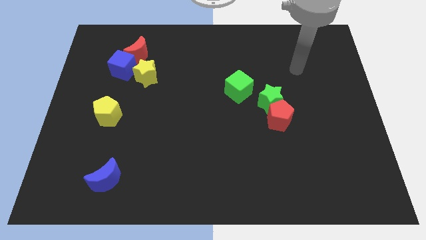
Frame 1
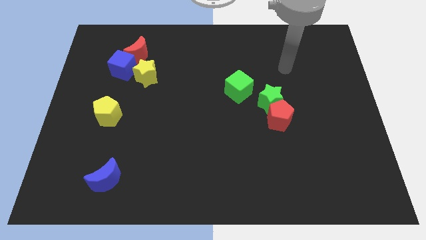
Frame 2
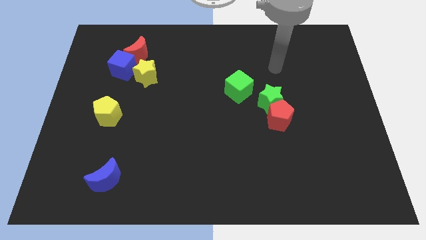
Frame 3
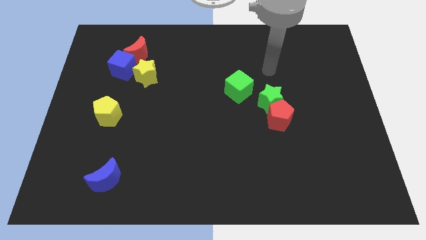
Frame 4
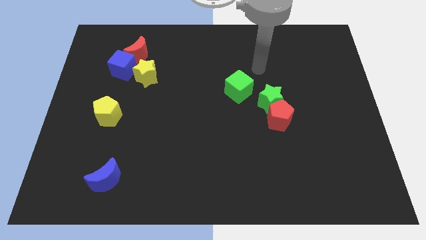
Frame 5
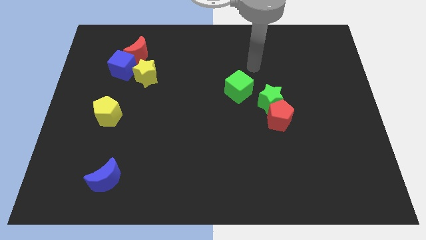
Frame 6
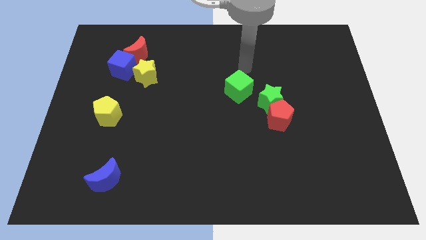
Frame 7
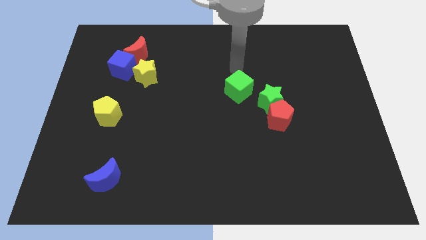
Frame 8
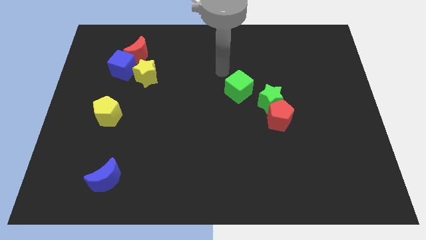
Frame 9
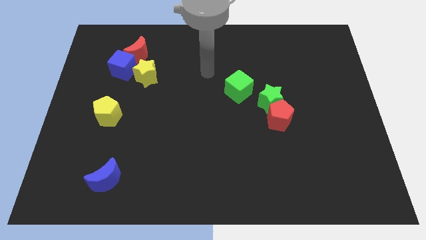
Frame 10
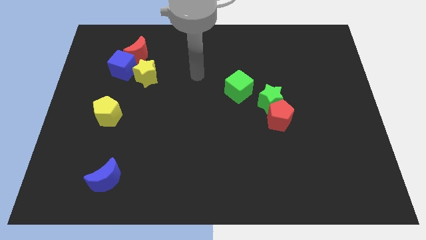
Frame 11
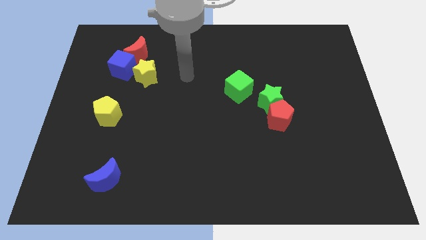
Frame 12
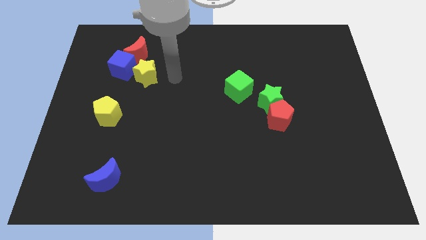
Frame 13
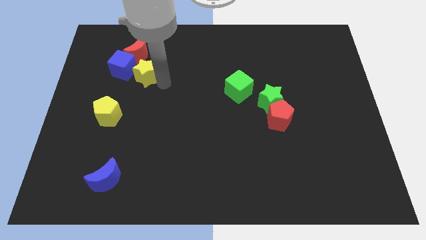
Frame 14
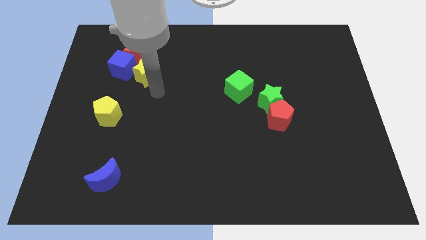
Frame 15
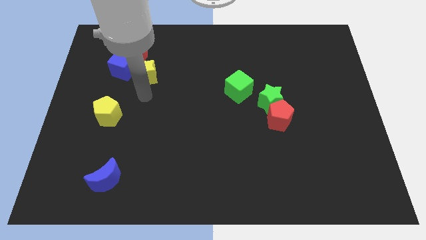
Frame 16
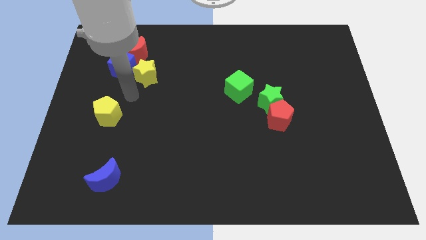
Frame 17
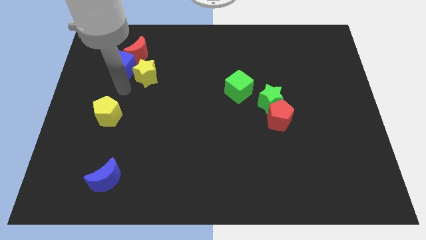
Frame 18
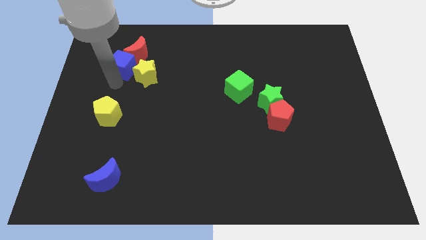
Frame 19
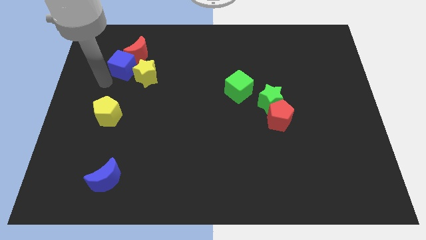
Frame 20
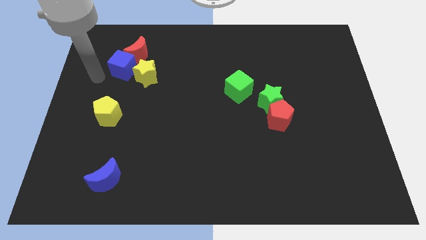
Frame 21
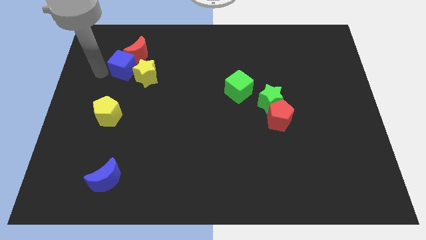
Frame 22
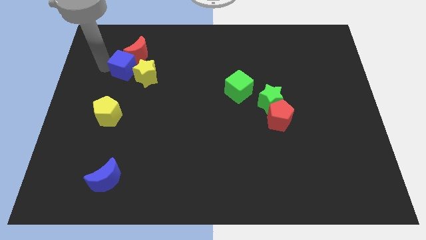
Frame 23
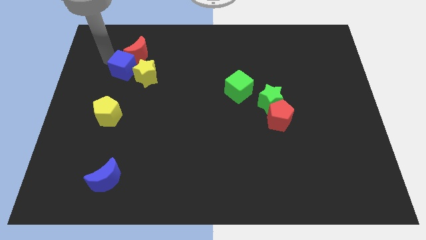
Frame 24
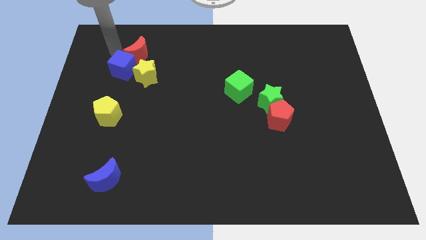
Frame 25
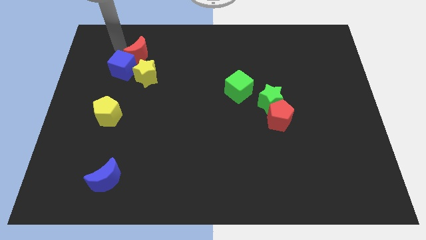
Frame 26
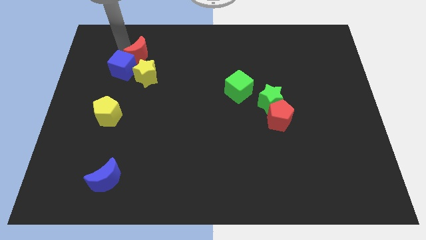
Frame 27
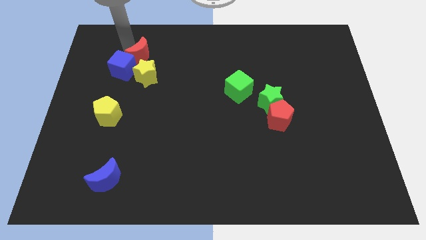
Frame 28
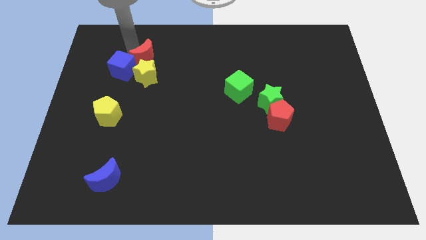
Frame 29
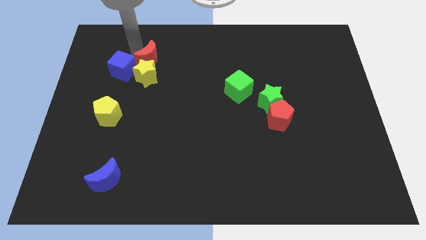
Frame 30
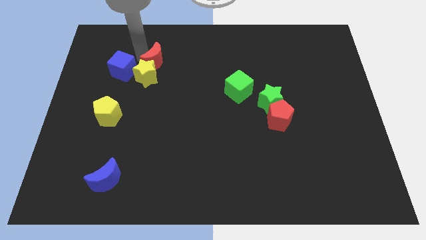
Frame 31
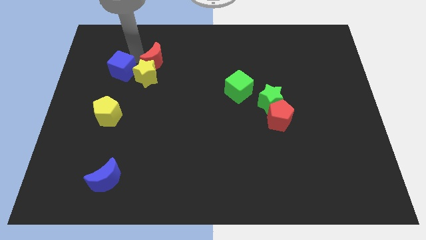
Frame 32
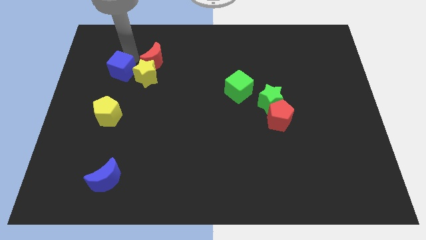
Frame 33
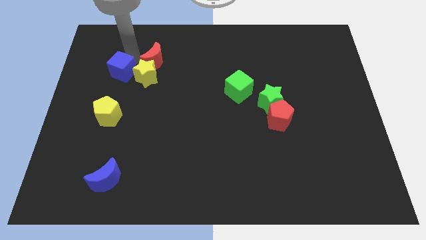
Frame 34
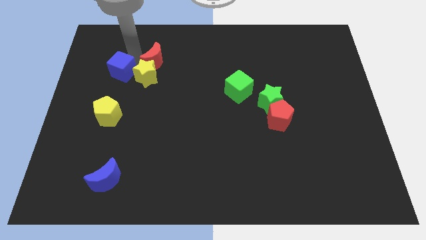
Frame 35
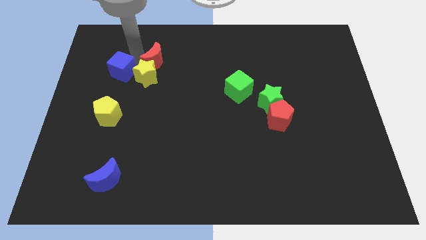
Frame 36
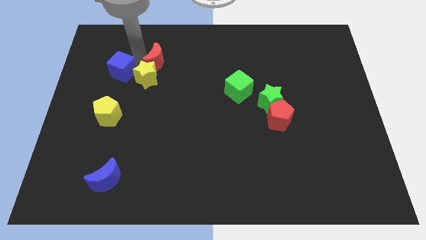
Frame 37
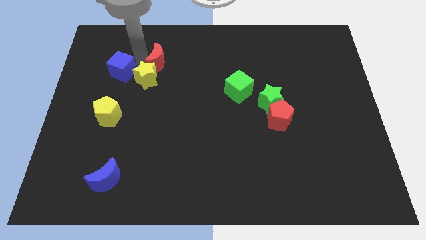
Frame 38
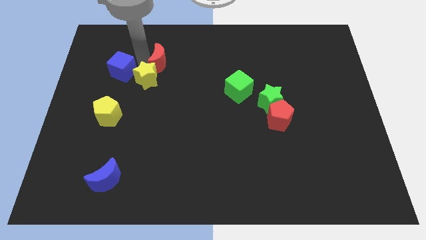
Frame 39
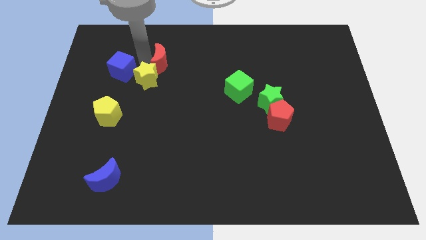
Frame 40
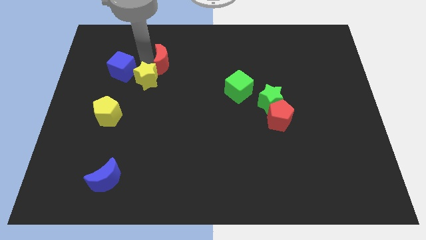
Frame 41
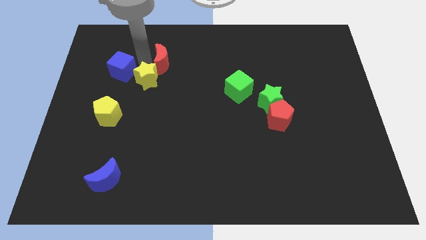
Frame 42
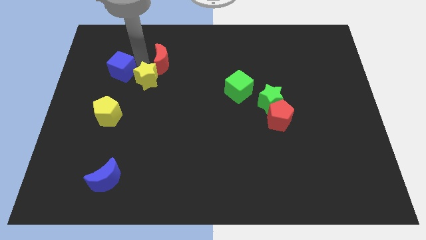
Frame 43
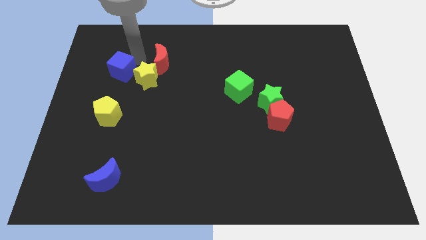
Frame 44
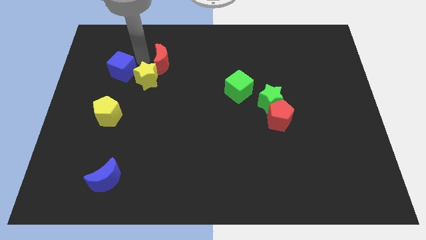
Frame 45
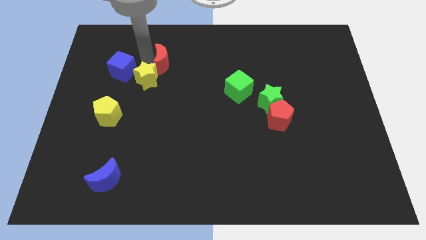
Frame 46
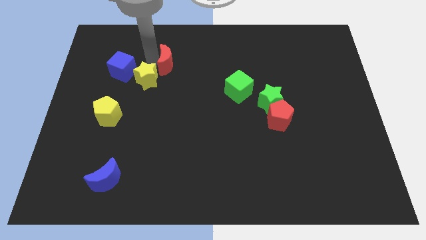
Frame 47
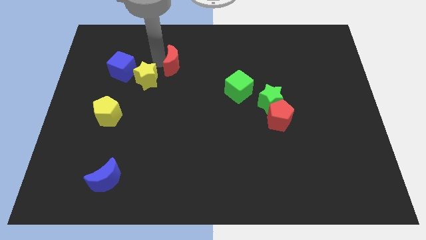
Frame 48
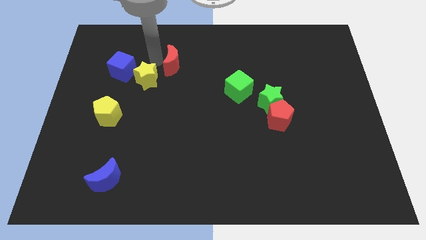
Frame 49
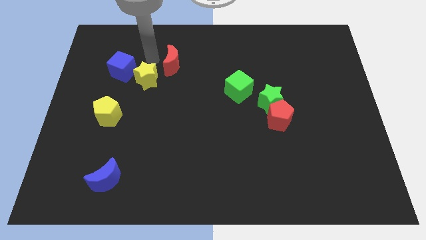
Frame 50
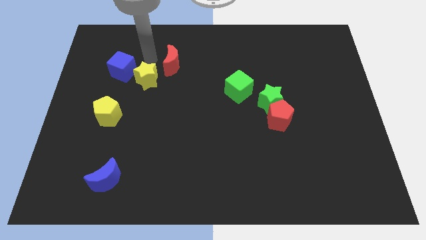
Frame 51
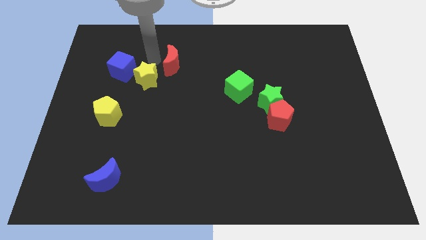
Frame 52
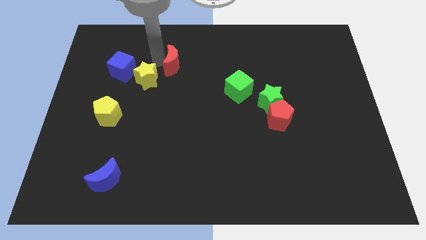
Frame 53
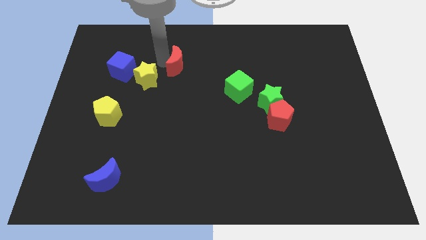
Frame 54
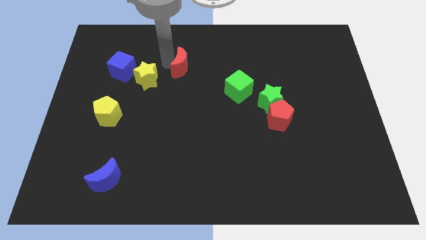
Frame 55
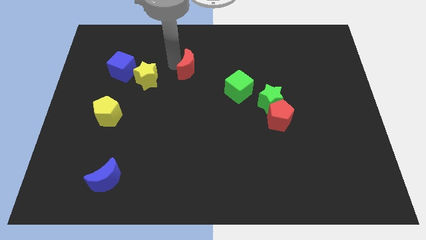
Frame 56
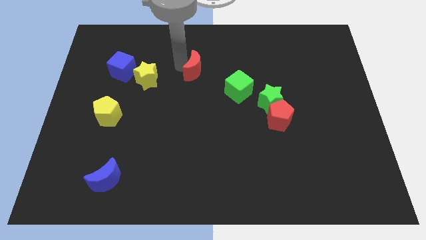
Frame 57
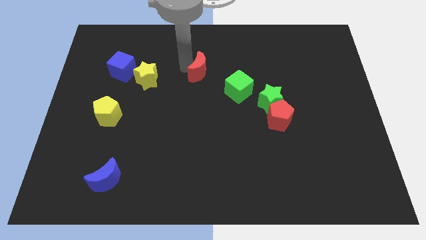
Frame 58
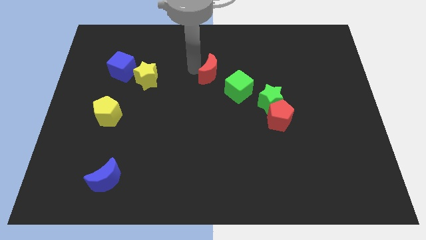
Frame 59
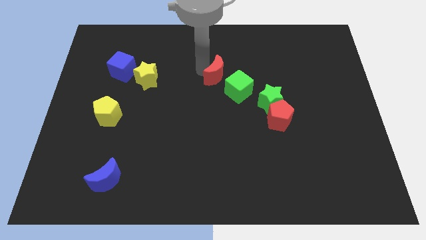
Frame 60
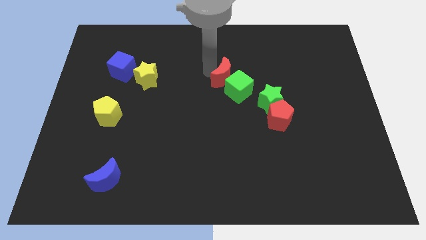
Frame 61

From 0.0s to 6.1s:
put the red moon towards the green cube

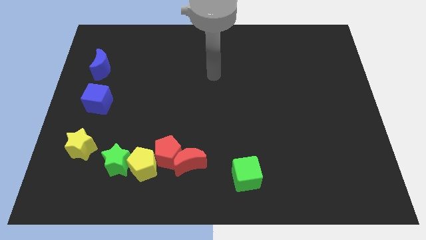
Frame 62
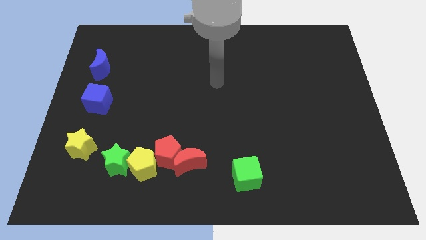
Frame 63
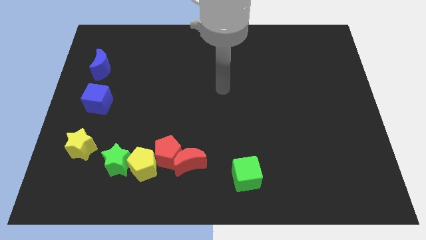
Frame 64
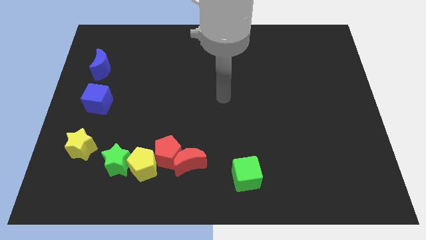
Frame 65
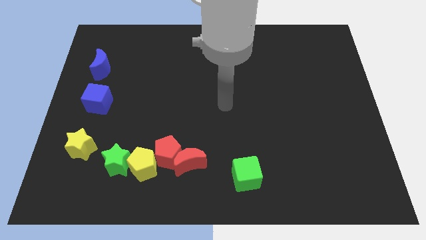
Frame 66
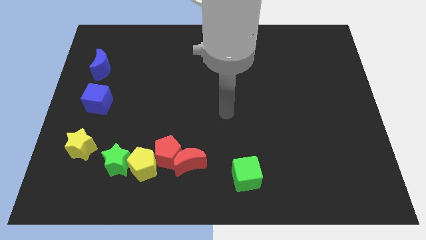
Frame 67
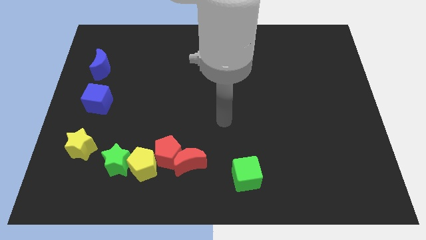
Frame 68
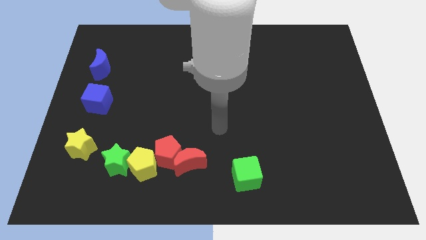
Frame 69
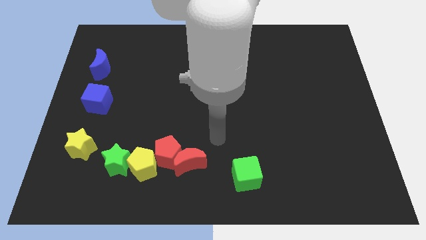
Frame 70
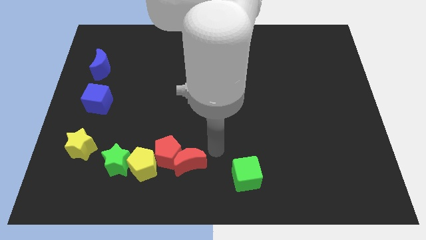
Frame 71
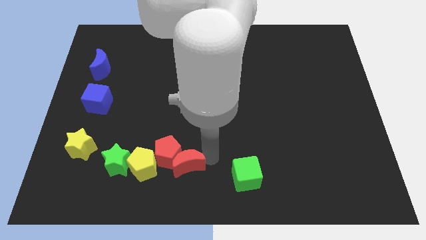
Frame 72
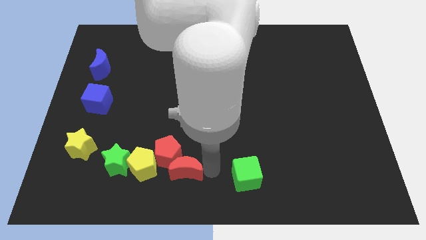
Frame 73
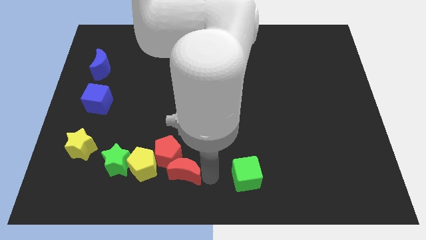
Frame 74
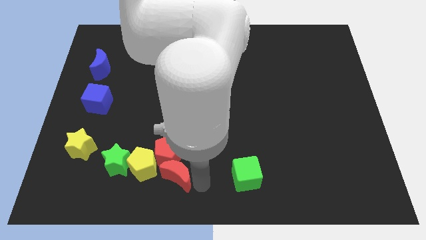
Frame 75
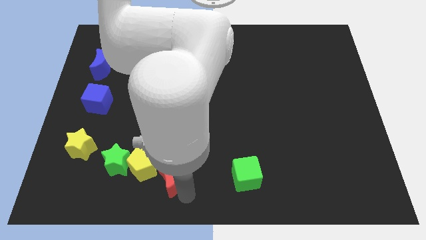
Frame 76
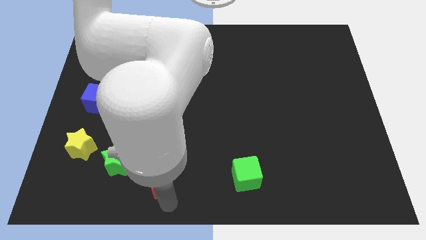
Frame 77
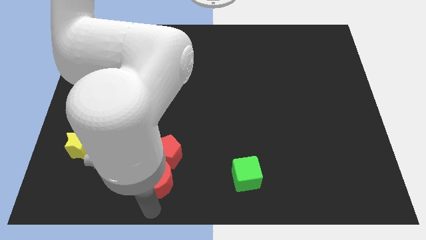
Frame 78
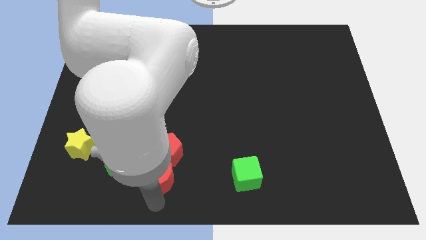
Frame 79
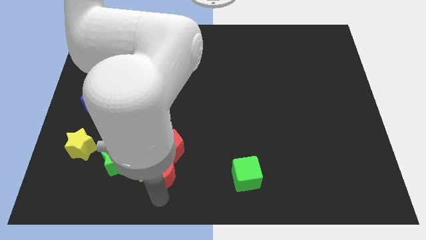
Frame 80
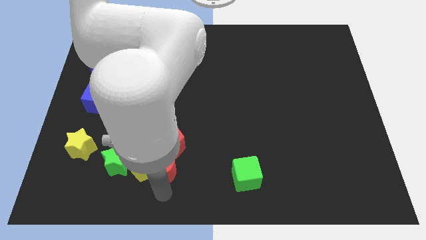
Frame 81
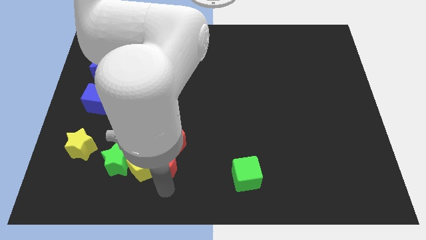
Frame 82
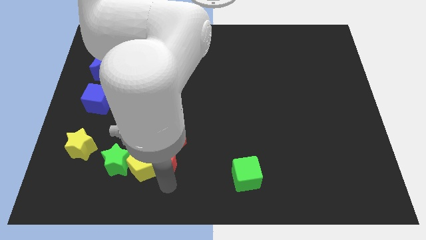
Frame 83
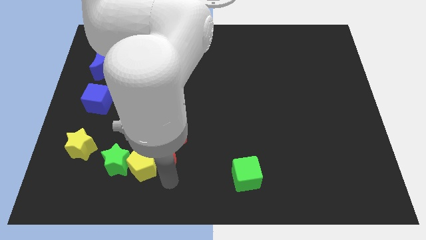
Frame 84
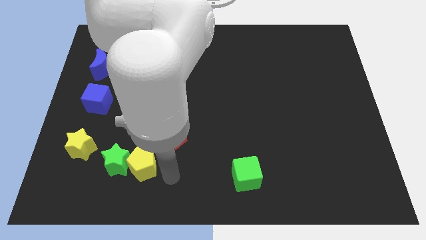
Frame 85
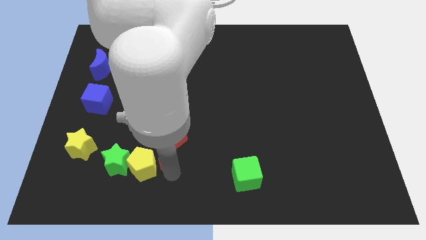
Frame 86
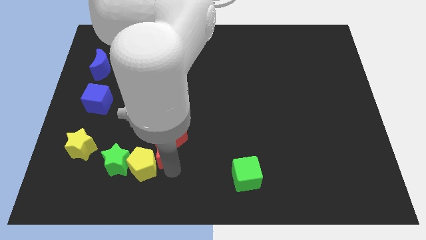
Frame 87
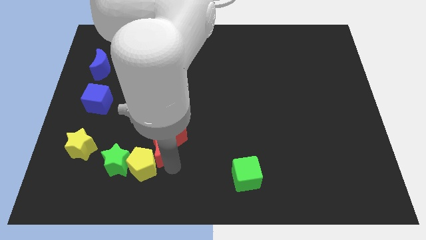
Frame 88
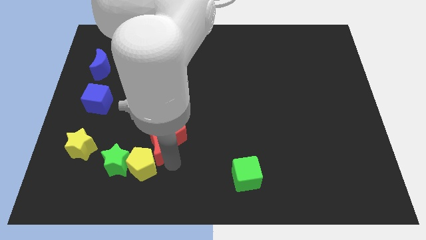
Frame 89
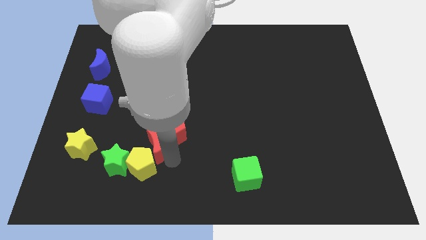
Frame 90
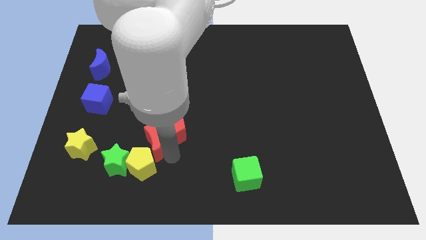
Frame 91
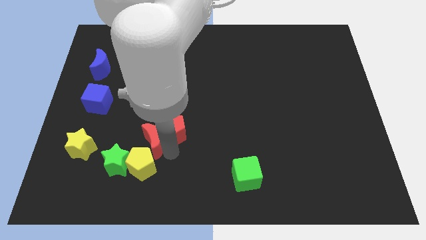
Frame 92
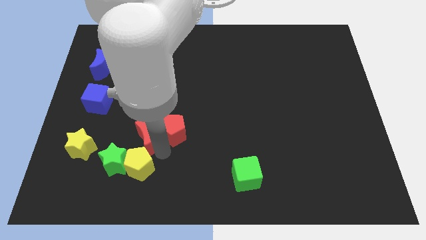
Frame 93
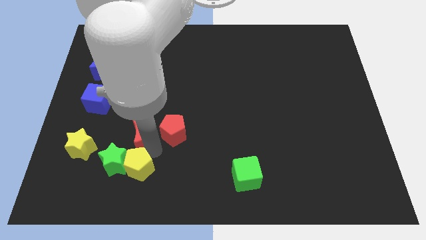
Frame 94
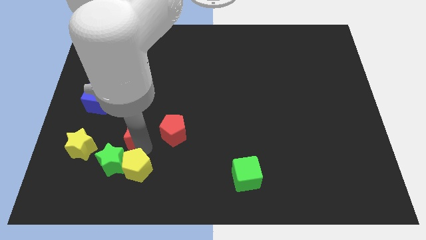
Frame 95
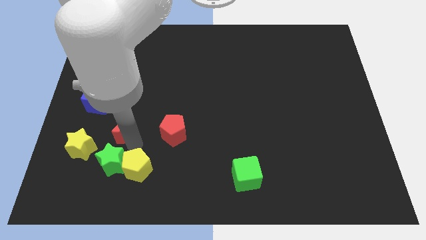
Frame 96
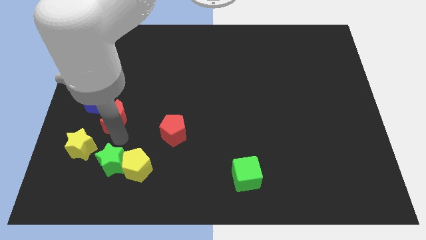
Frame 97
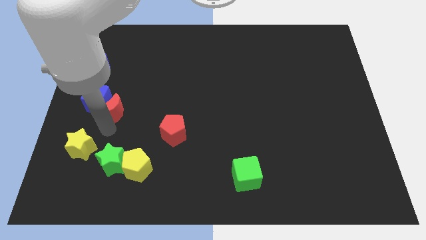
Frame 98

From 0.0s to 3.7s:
put the red moon close to the blue cube
